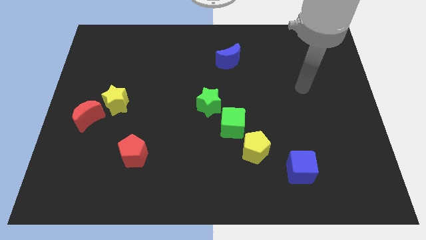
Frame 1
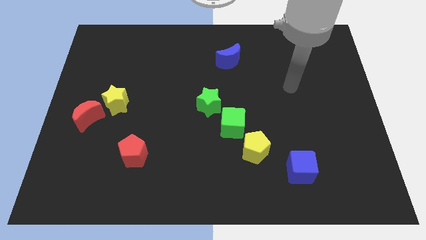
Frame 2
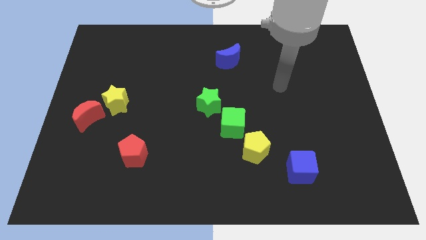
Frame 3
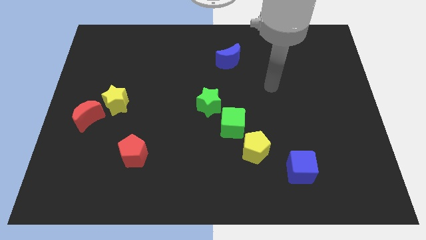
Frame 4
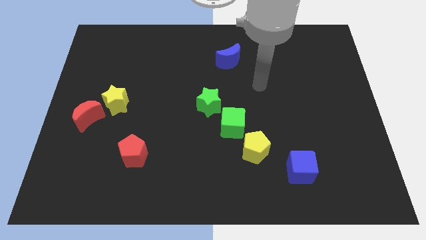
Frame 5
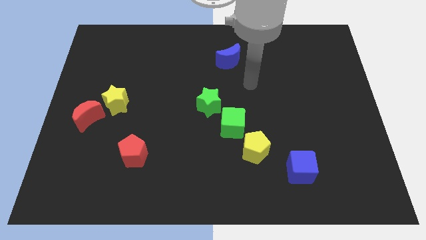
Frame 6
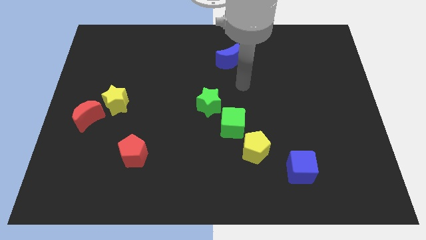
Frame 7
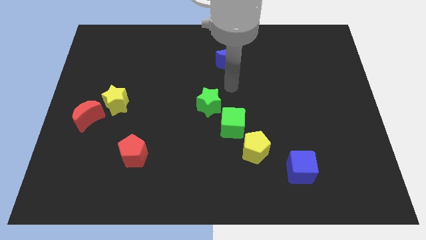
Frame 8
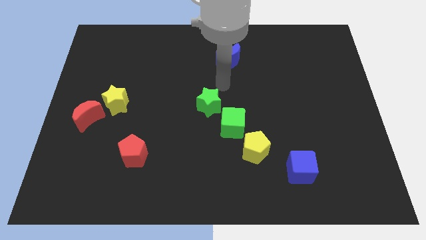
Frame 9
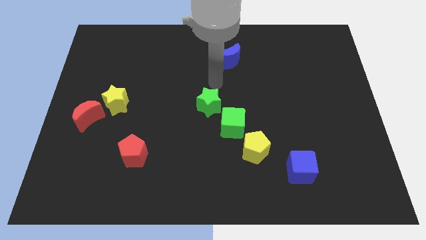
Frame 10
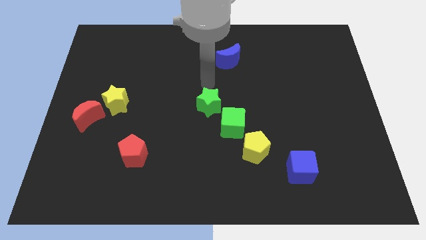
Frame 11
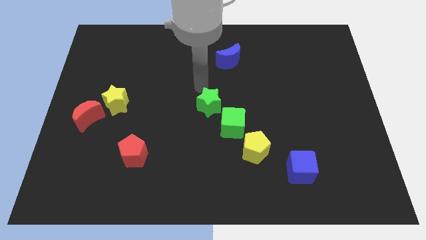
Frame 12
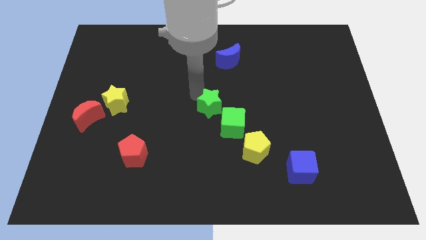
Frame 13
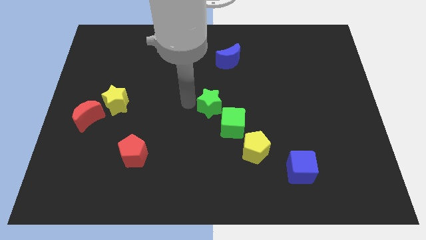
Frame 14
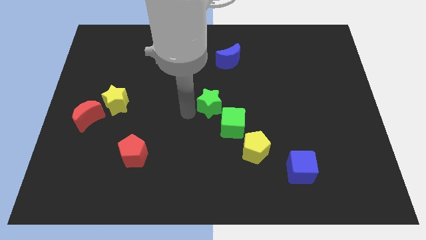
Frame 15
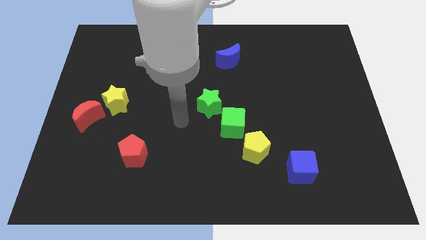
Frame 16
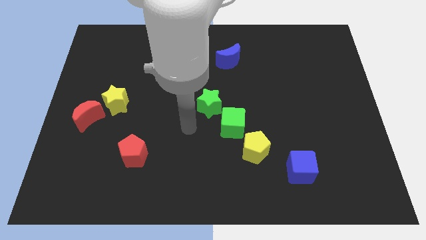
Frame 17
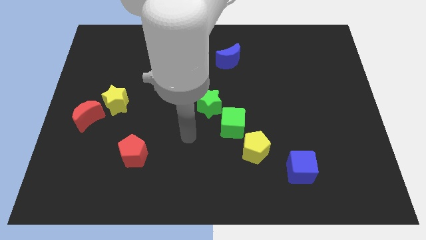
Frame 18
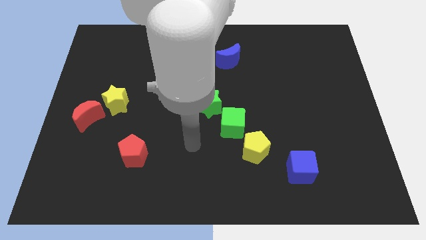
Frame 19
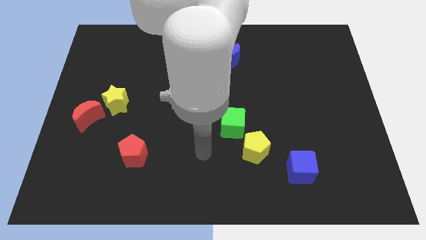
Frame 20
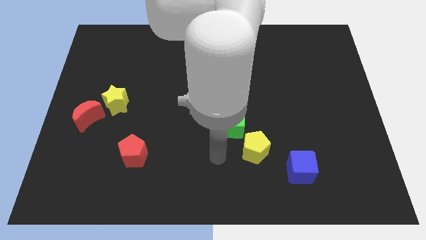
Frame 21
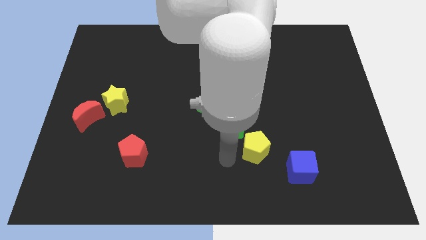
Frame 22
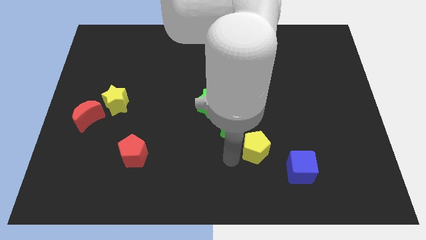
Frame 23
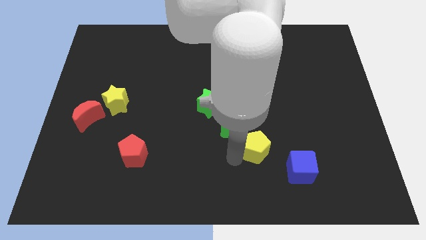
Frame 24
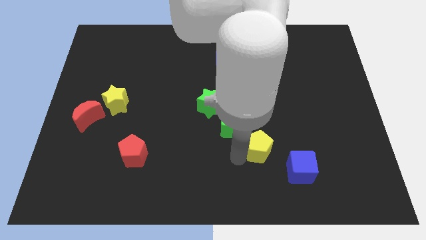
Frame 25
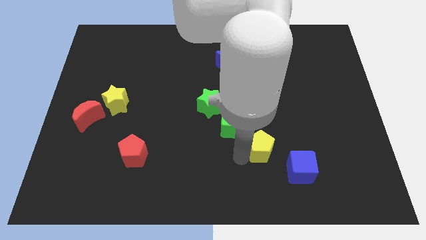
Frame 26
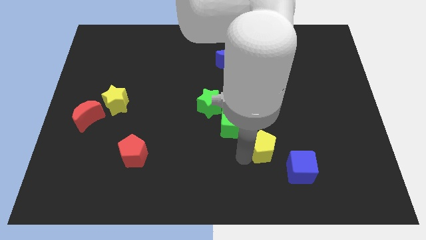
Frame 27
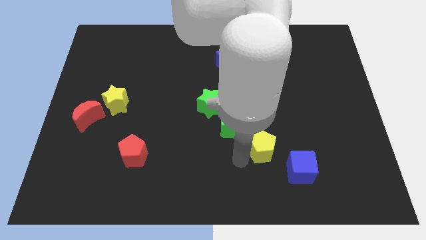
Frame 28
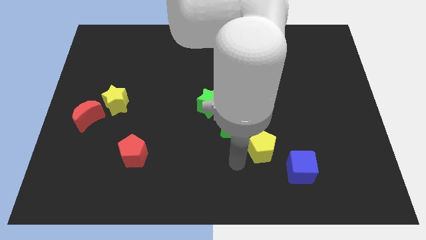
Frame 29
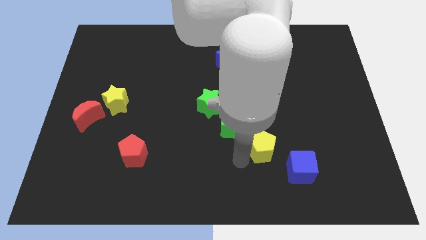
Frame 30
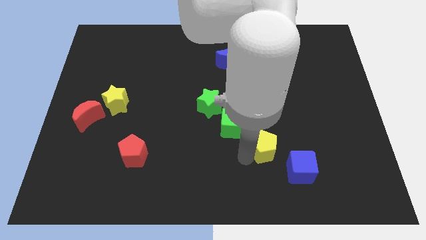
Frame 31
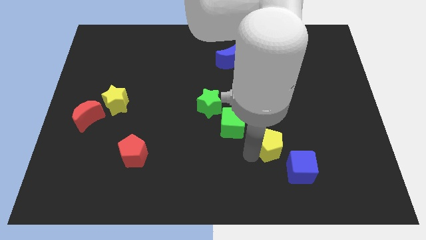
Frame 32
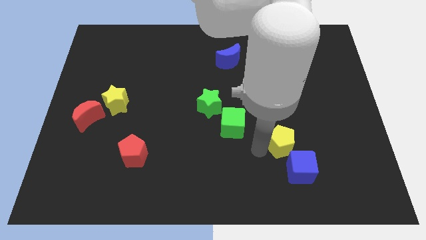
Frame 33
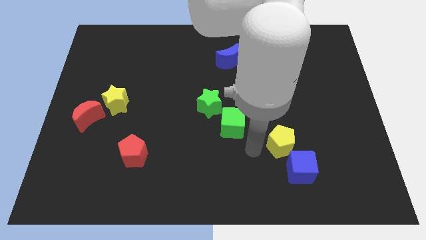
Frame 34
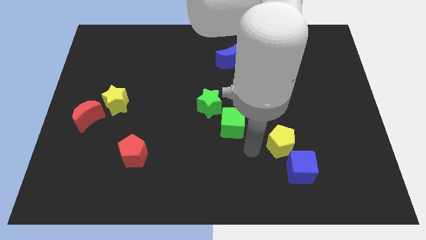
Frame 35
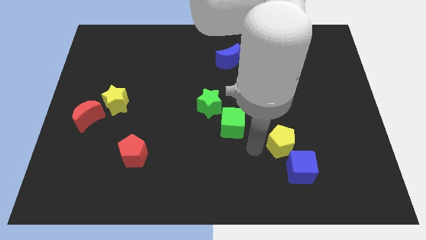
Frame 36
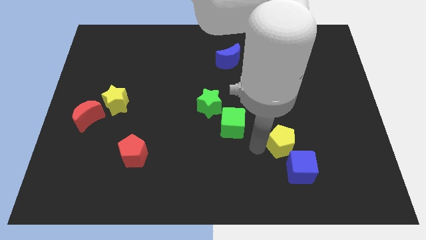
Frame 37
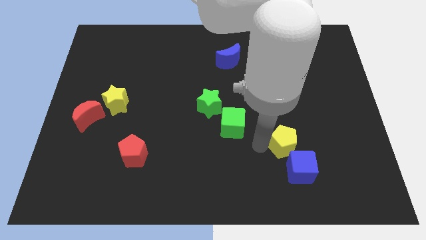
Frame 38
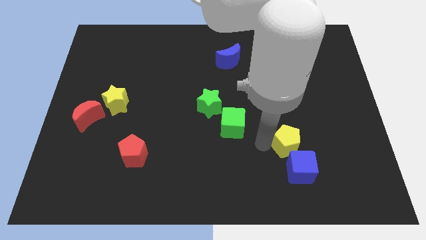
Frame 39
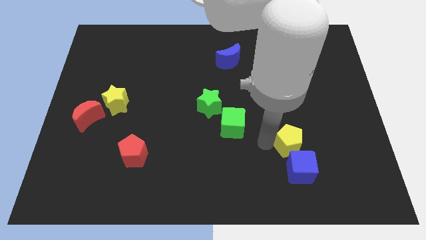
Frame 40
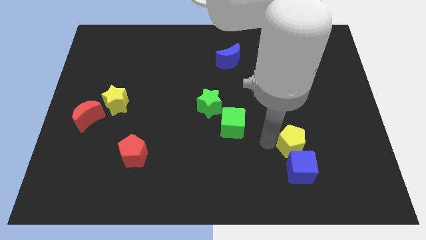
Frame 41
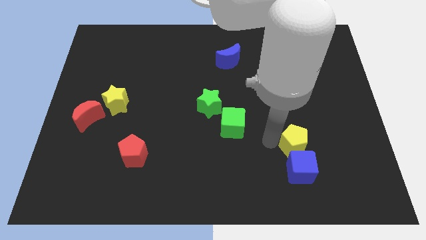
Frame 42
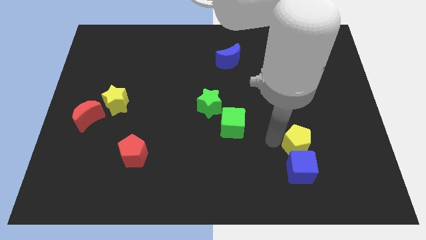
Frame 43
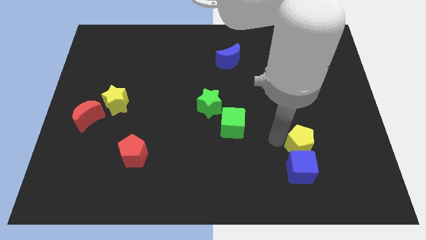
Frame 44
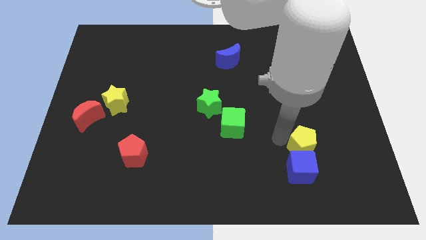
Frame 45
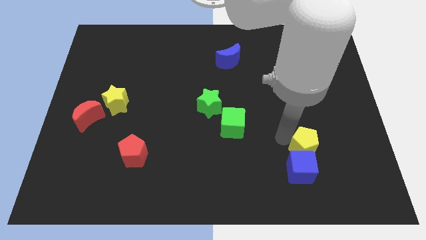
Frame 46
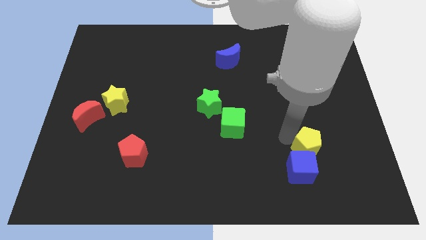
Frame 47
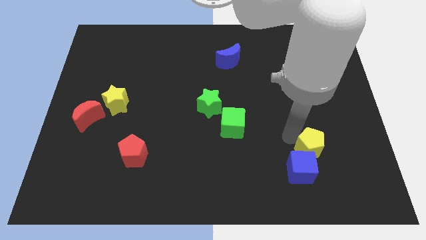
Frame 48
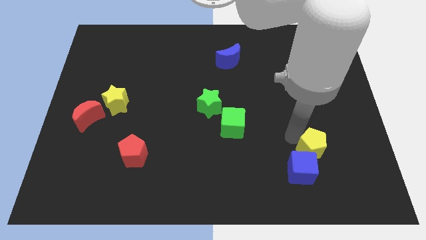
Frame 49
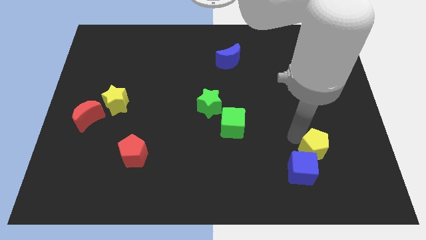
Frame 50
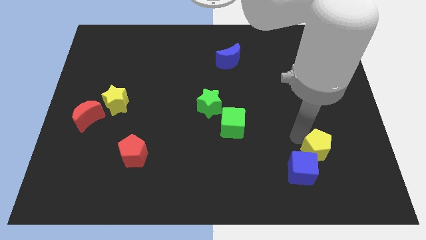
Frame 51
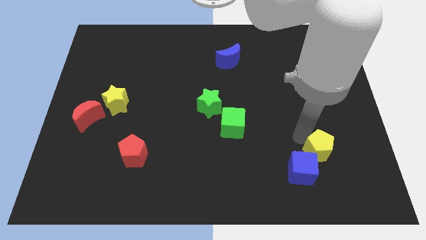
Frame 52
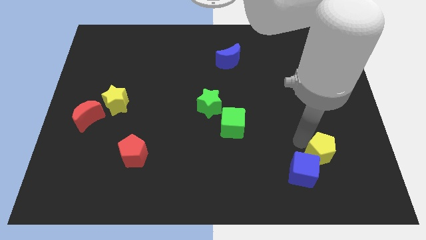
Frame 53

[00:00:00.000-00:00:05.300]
put the yellow pentagon to the right of the blue cube

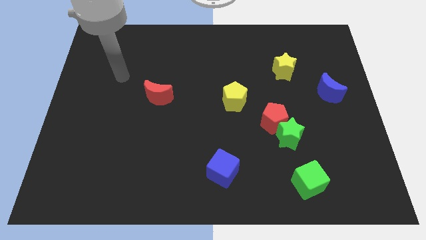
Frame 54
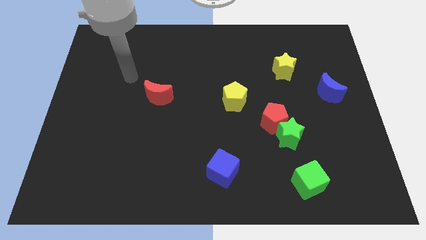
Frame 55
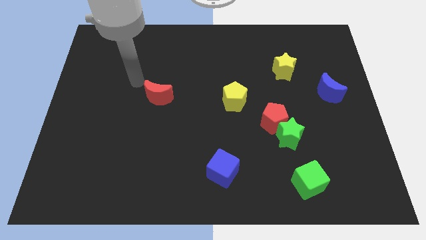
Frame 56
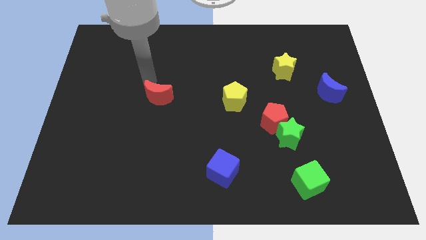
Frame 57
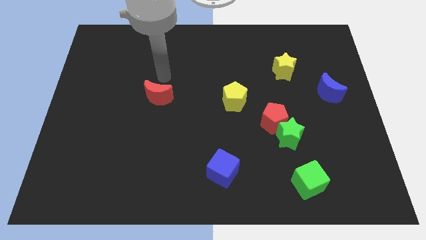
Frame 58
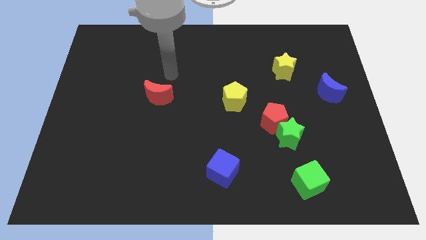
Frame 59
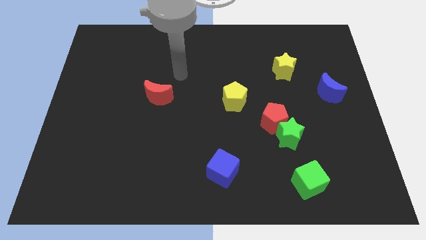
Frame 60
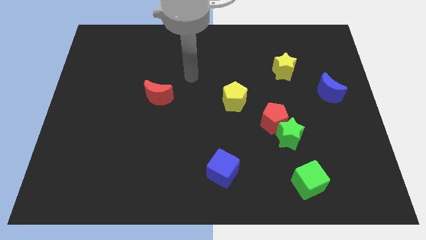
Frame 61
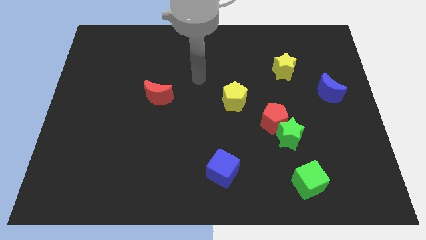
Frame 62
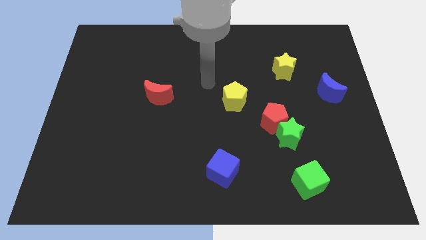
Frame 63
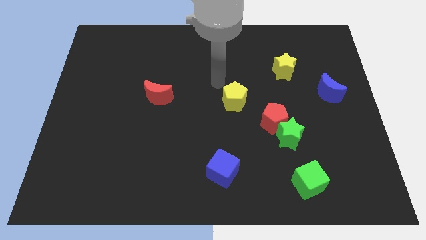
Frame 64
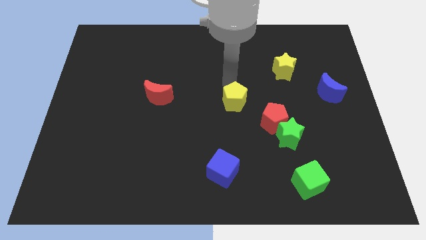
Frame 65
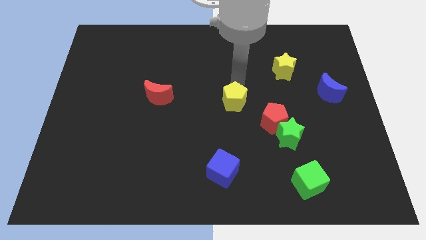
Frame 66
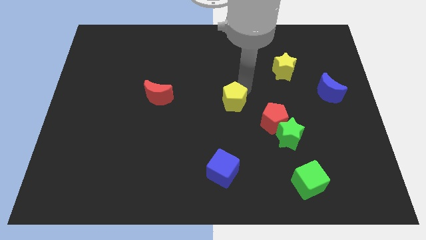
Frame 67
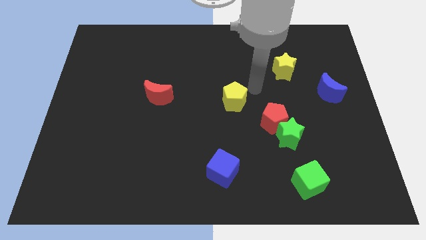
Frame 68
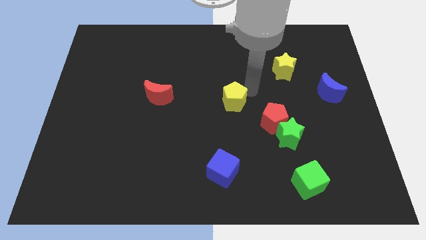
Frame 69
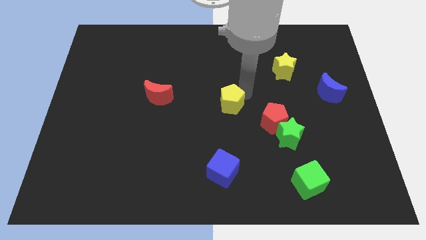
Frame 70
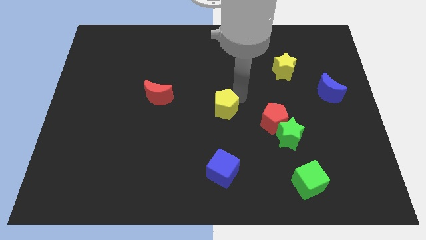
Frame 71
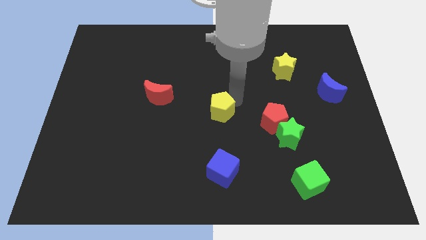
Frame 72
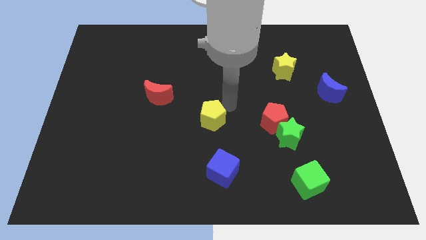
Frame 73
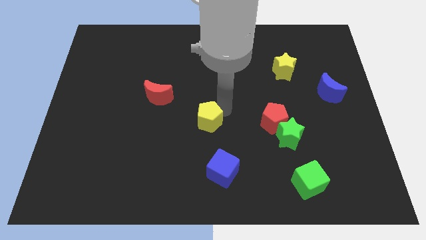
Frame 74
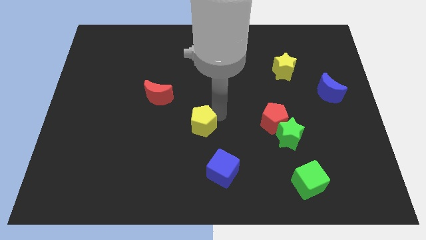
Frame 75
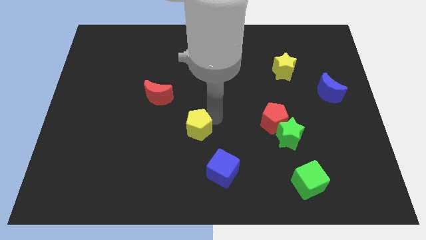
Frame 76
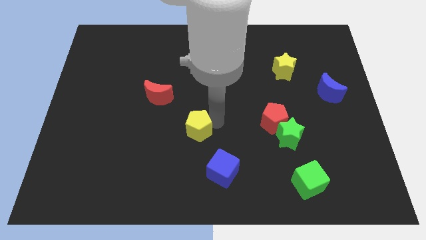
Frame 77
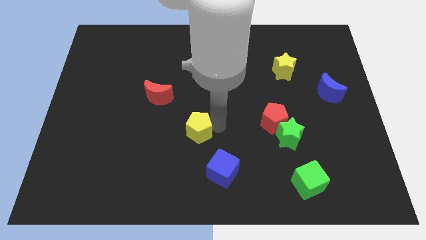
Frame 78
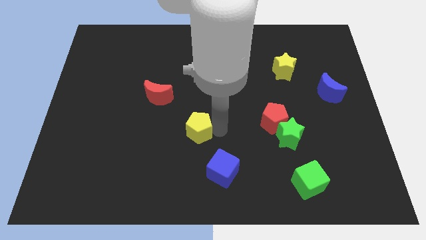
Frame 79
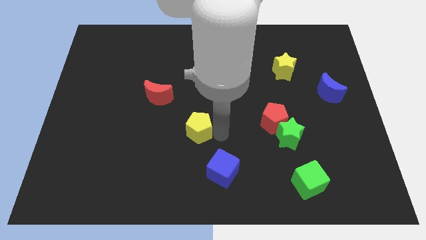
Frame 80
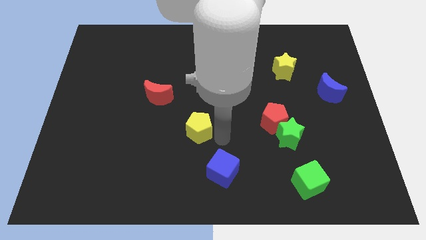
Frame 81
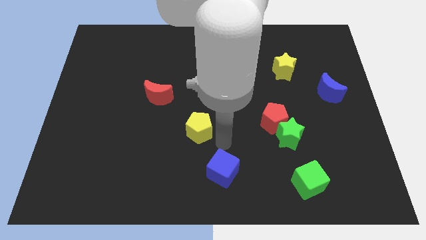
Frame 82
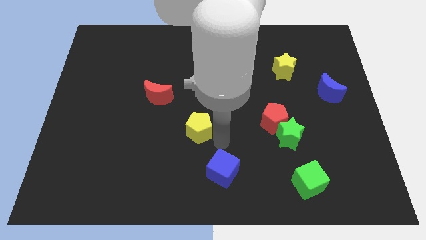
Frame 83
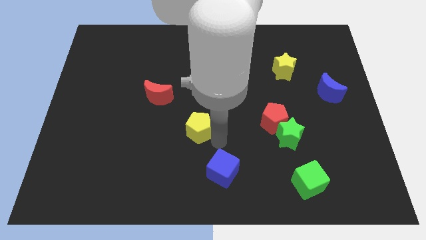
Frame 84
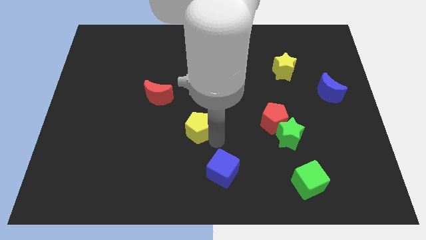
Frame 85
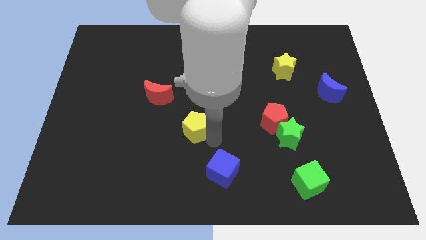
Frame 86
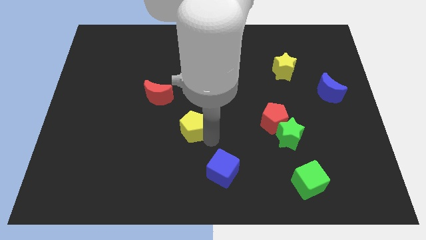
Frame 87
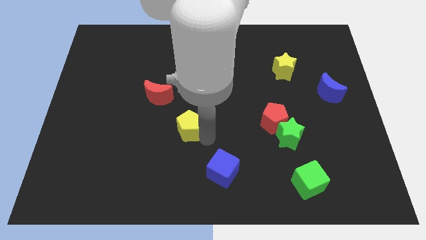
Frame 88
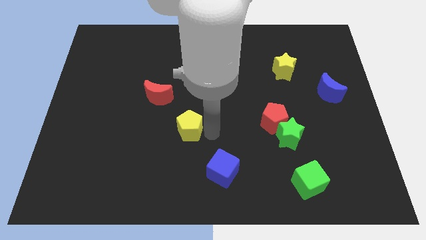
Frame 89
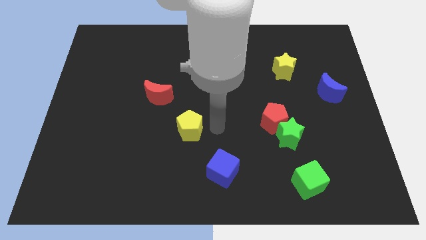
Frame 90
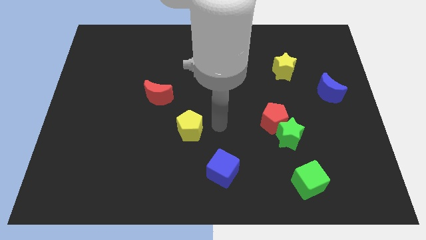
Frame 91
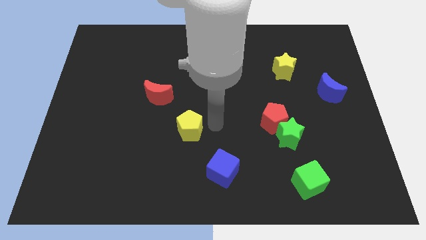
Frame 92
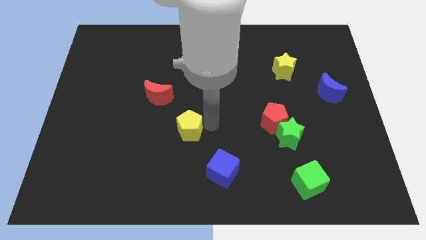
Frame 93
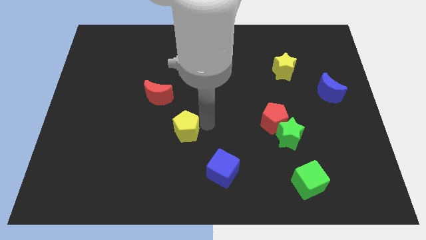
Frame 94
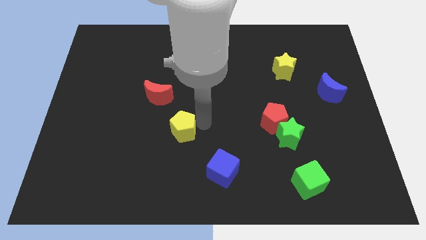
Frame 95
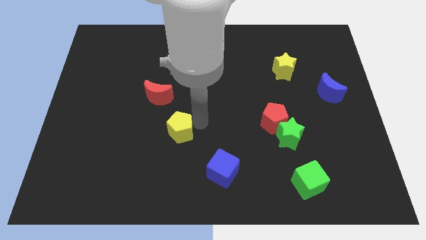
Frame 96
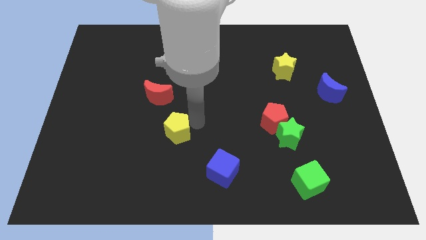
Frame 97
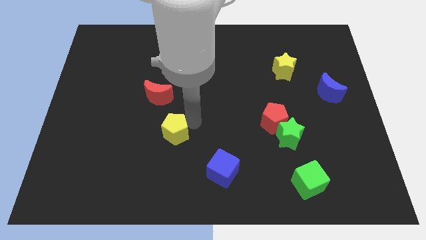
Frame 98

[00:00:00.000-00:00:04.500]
slide the yellow pentagon to the bottom side of the red moon
